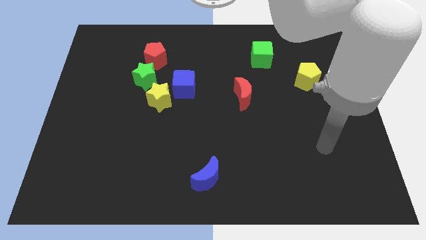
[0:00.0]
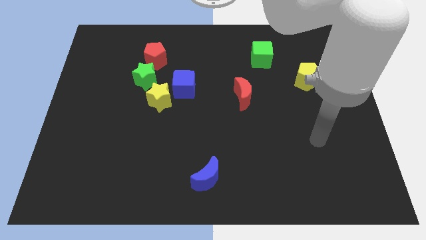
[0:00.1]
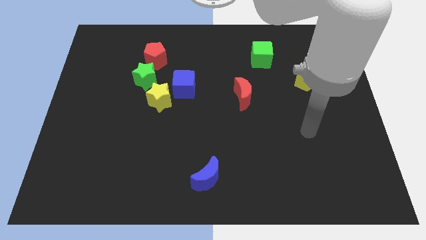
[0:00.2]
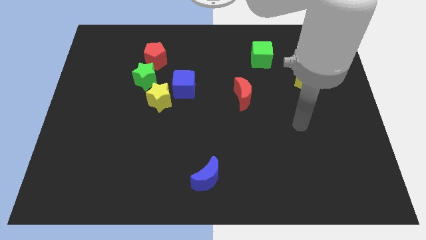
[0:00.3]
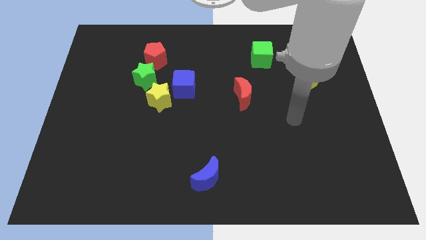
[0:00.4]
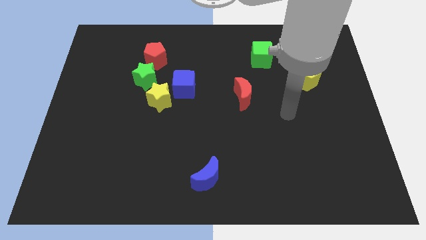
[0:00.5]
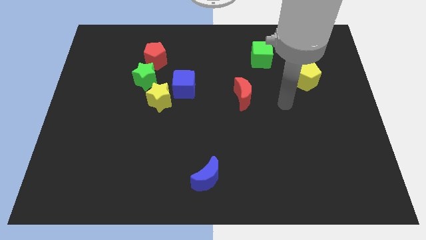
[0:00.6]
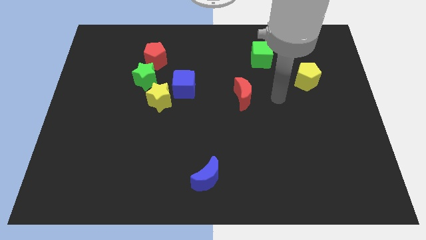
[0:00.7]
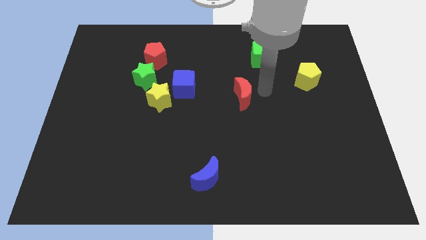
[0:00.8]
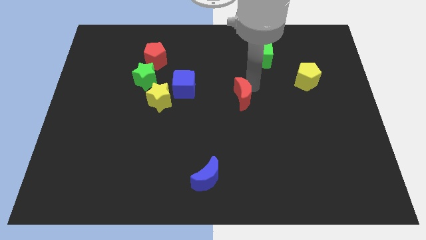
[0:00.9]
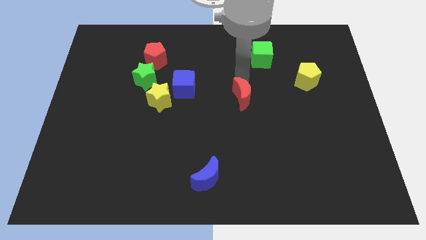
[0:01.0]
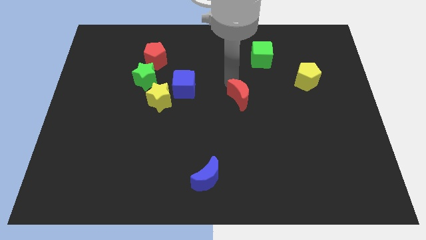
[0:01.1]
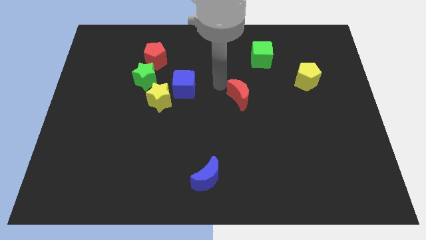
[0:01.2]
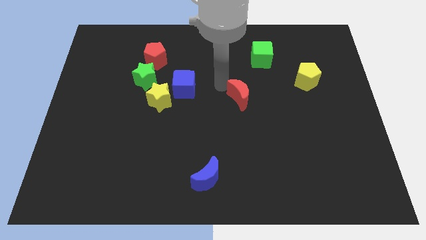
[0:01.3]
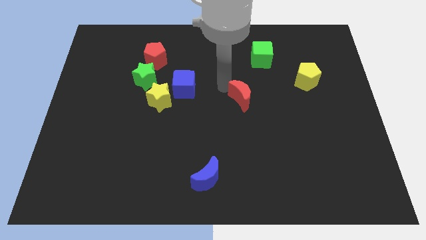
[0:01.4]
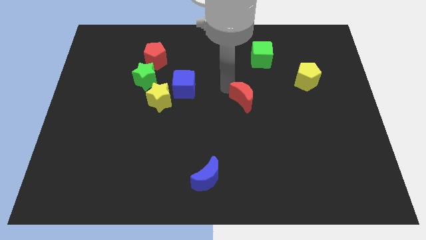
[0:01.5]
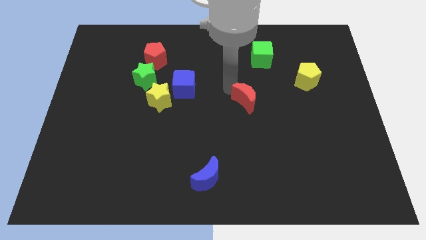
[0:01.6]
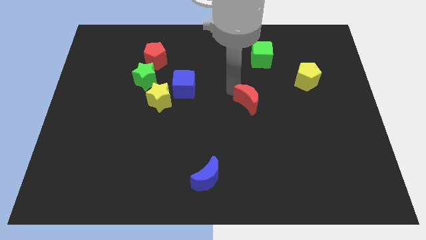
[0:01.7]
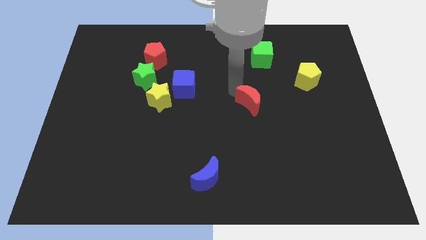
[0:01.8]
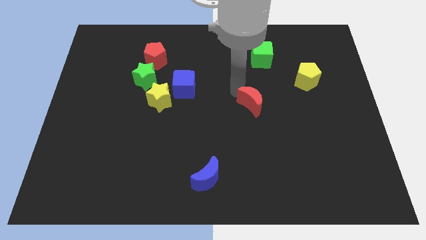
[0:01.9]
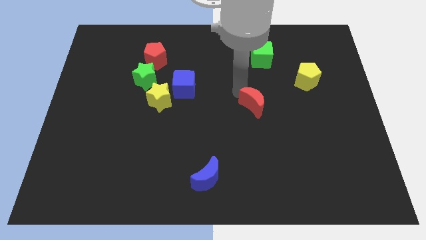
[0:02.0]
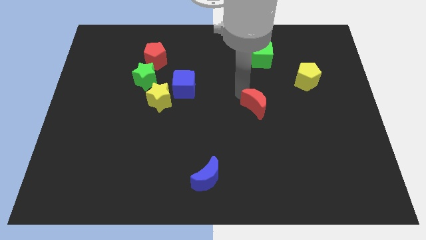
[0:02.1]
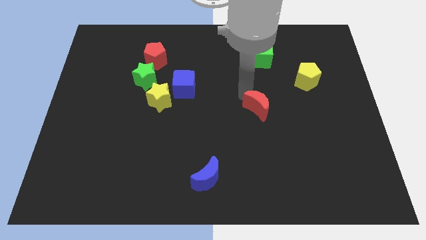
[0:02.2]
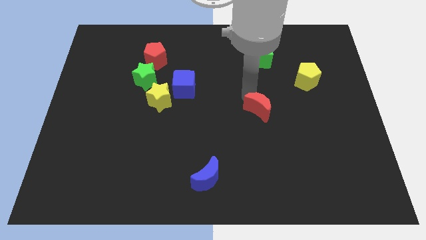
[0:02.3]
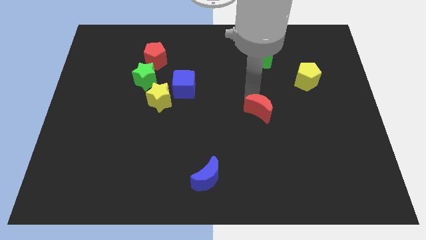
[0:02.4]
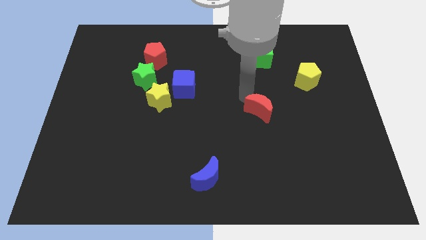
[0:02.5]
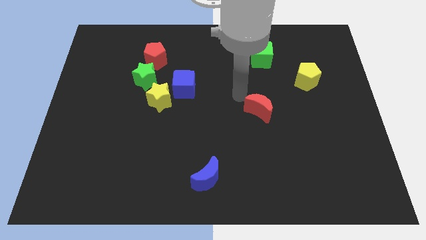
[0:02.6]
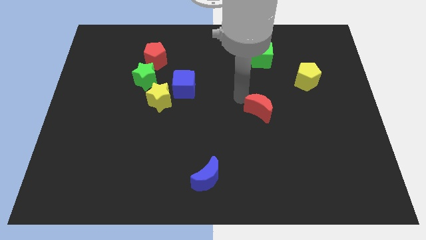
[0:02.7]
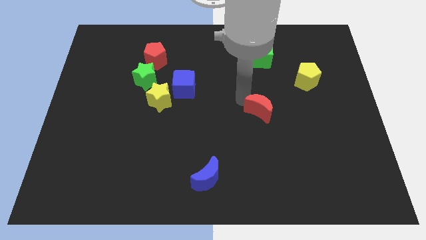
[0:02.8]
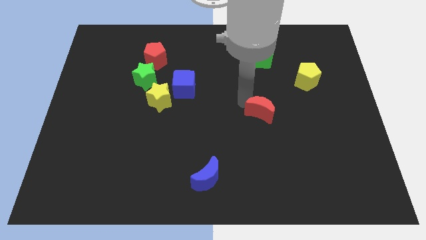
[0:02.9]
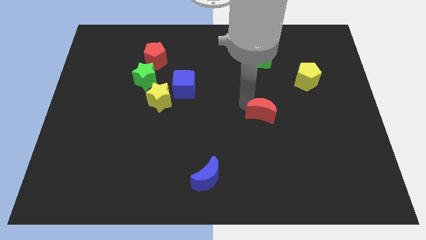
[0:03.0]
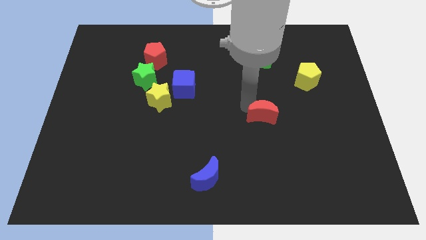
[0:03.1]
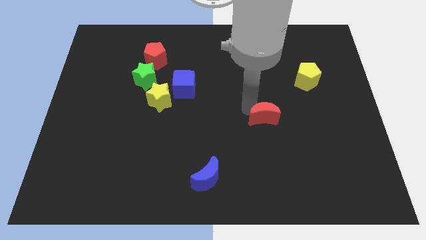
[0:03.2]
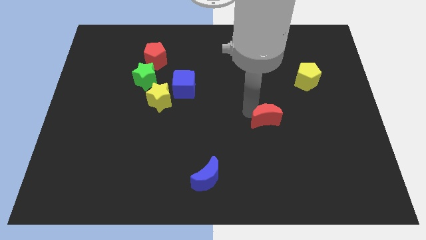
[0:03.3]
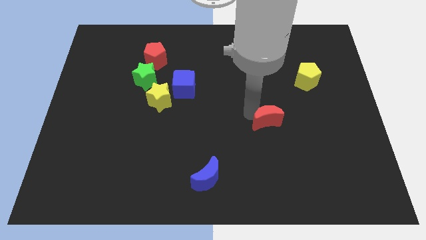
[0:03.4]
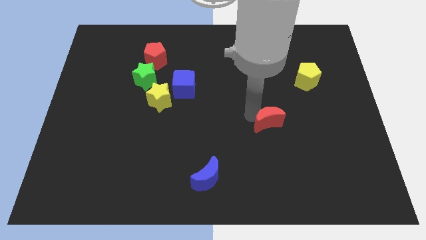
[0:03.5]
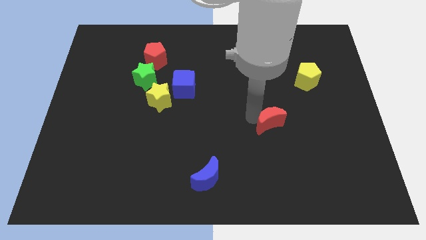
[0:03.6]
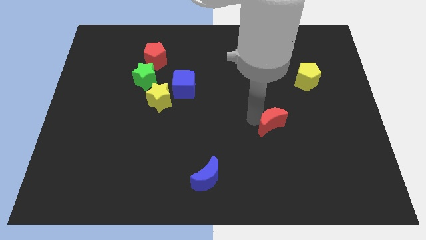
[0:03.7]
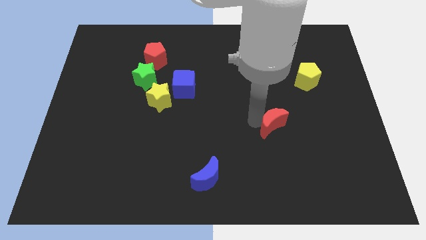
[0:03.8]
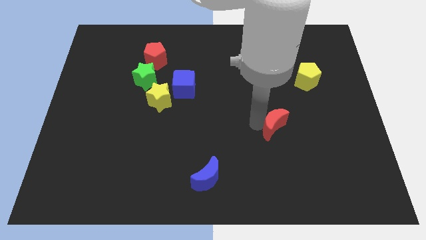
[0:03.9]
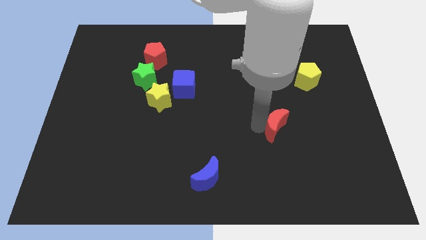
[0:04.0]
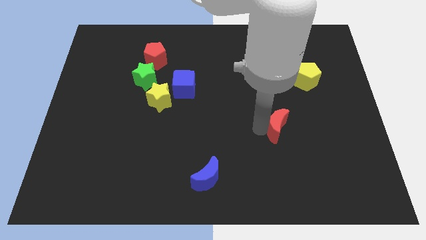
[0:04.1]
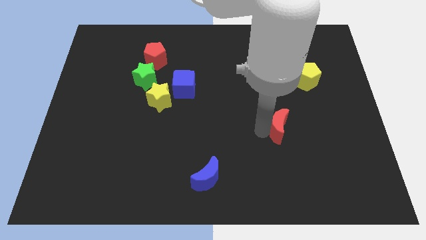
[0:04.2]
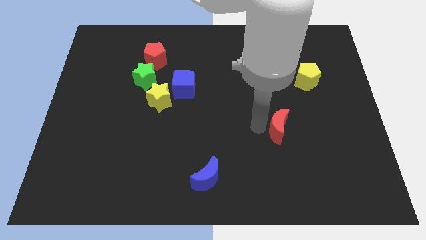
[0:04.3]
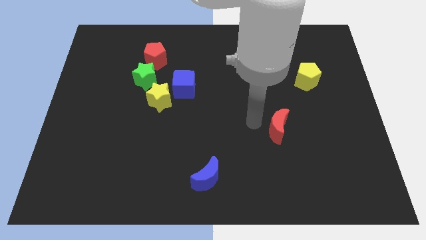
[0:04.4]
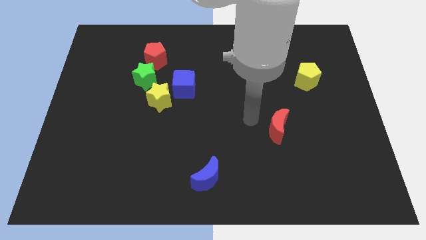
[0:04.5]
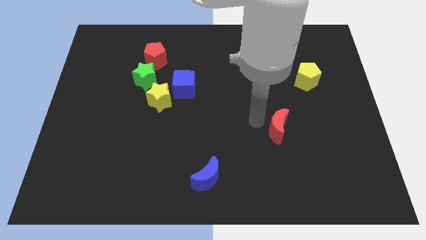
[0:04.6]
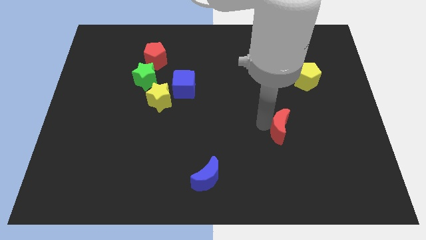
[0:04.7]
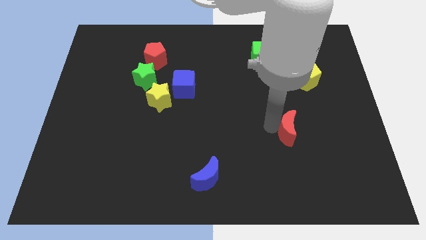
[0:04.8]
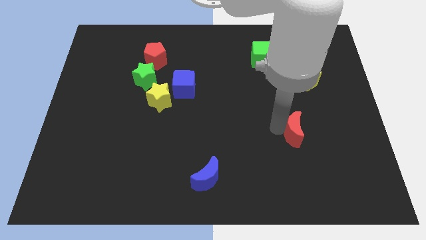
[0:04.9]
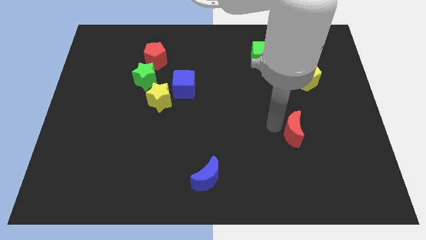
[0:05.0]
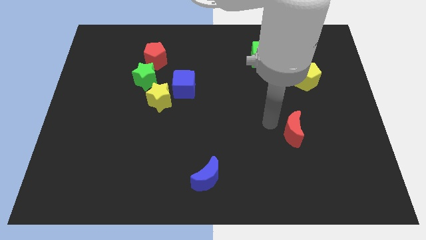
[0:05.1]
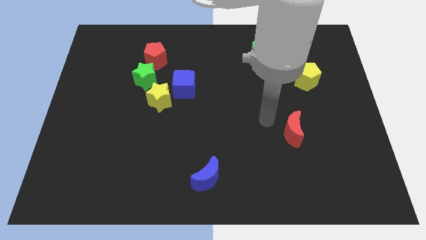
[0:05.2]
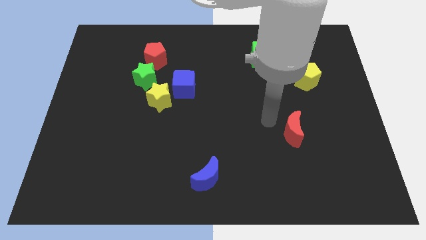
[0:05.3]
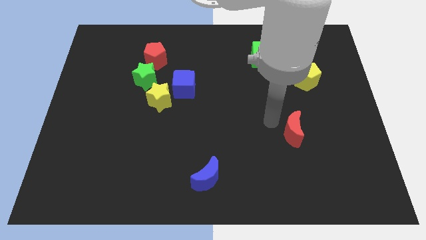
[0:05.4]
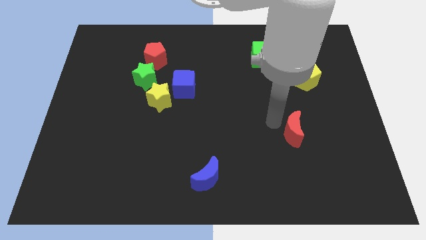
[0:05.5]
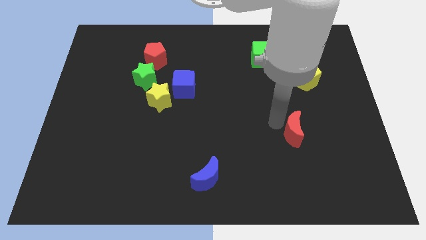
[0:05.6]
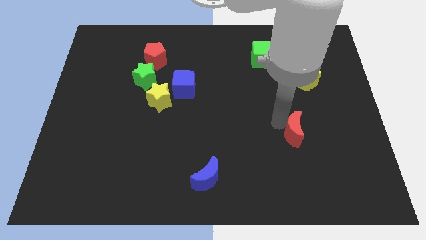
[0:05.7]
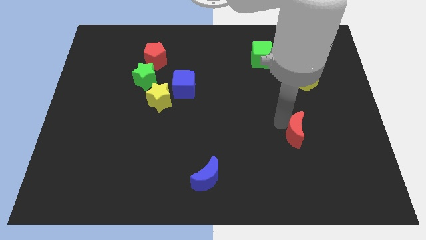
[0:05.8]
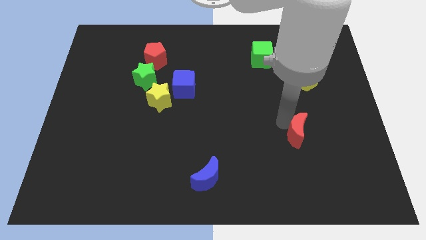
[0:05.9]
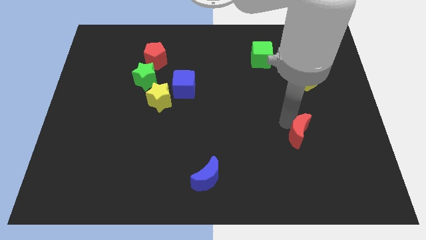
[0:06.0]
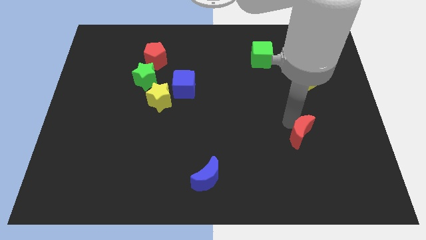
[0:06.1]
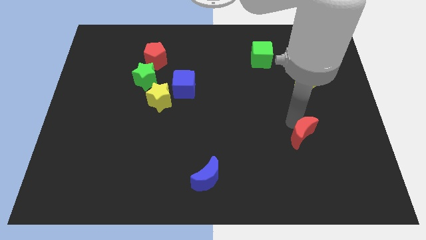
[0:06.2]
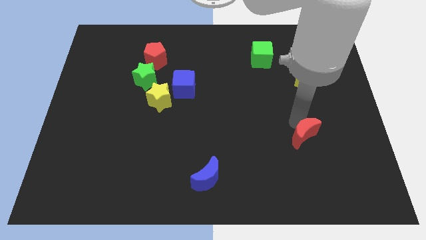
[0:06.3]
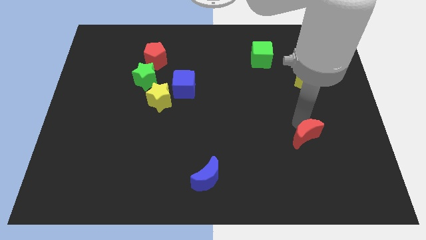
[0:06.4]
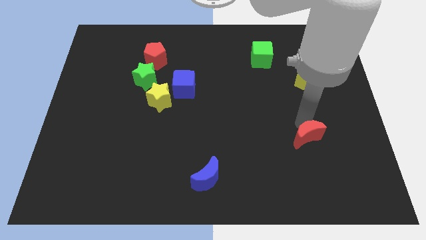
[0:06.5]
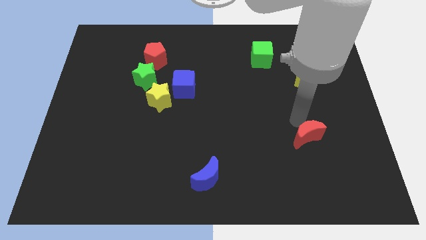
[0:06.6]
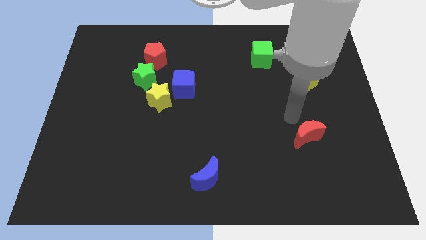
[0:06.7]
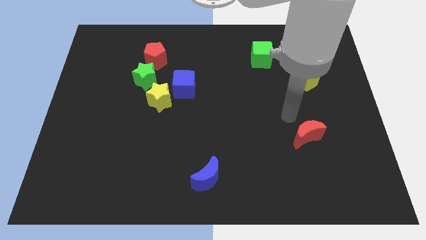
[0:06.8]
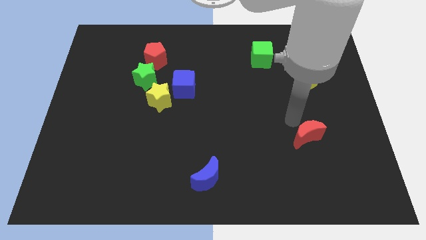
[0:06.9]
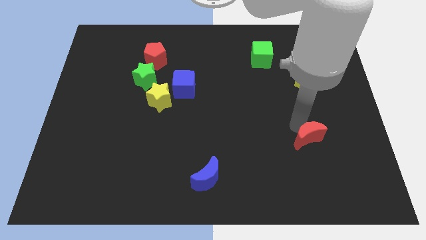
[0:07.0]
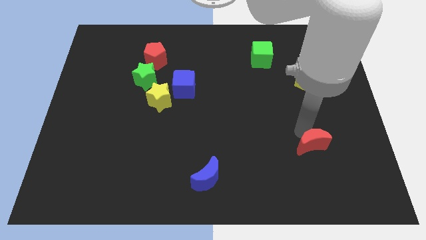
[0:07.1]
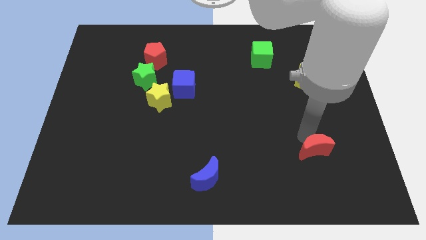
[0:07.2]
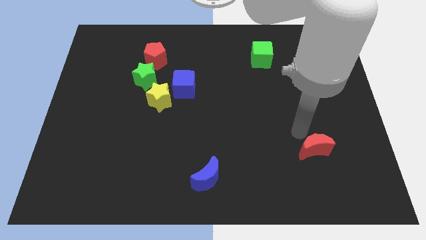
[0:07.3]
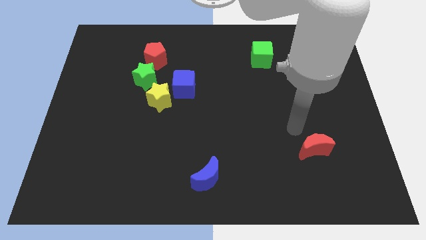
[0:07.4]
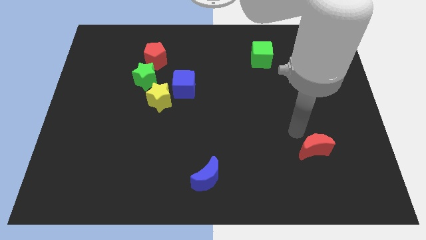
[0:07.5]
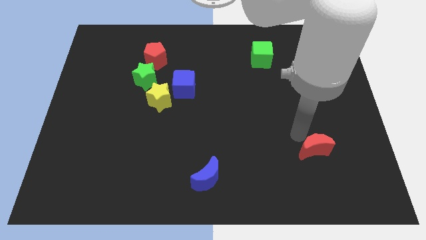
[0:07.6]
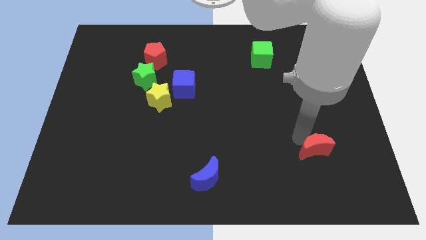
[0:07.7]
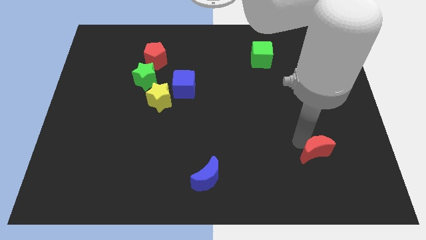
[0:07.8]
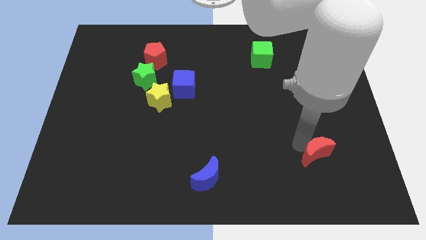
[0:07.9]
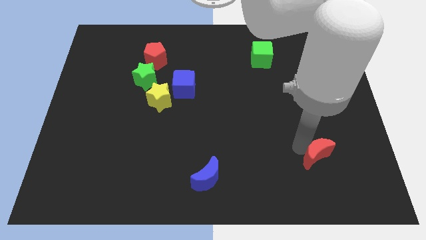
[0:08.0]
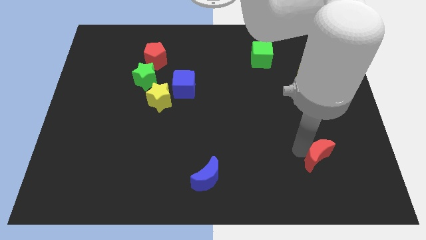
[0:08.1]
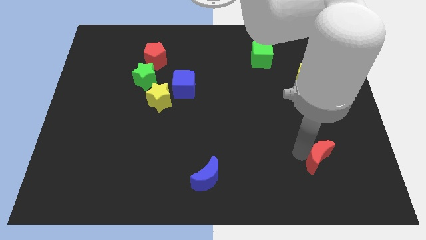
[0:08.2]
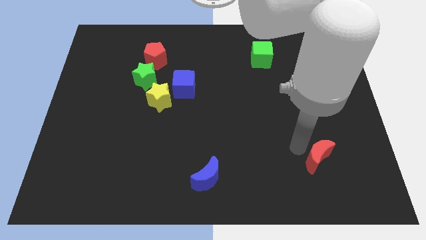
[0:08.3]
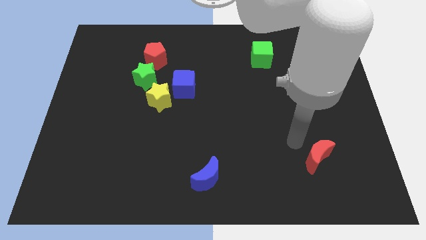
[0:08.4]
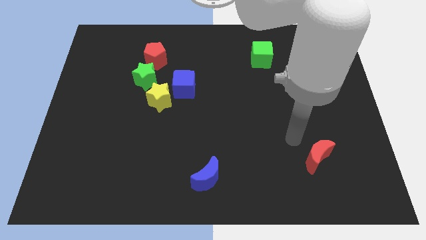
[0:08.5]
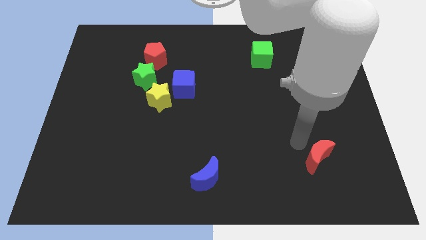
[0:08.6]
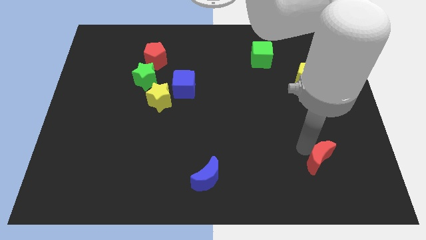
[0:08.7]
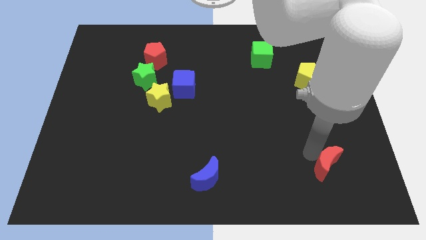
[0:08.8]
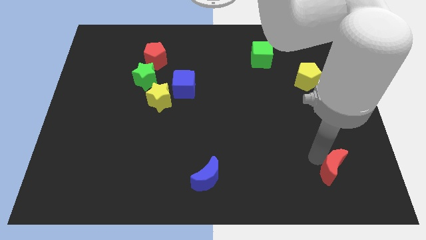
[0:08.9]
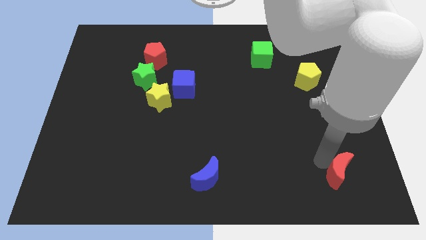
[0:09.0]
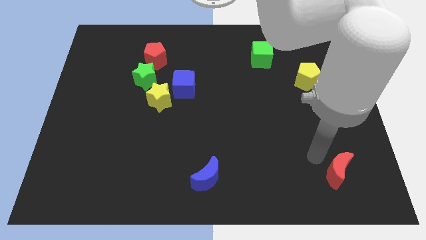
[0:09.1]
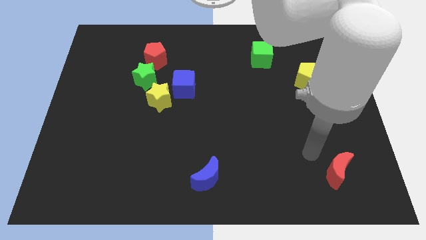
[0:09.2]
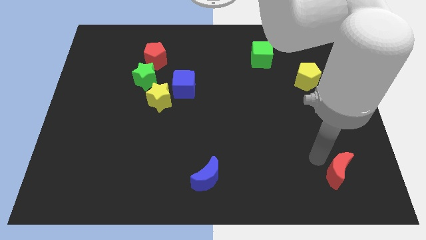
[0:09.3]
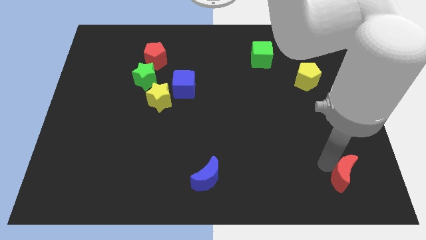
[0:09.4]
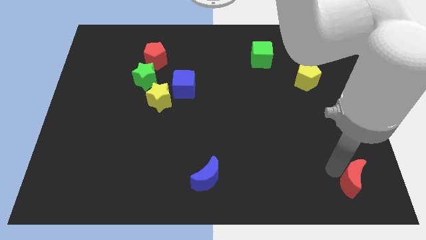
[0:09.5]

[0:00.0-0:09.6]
put the red moon to the bottom right corner
